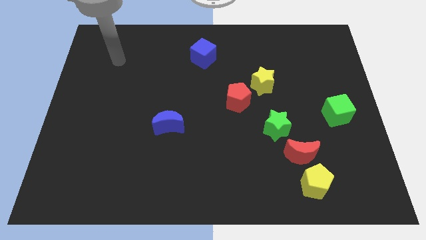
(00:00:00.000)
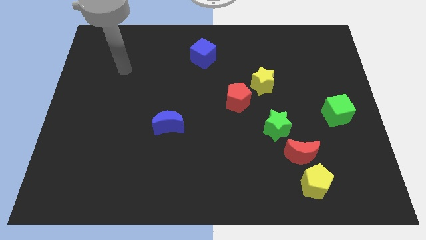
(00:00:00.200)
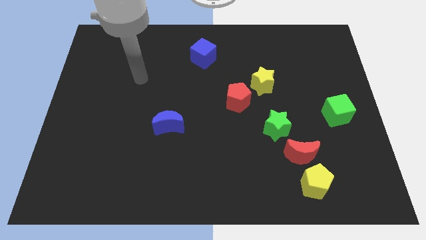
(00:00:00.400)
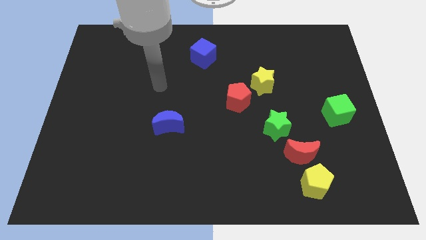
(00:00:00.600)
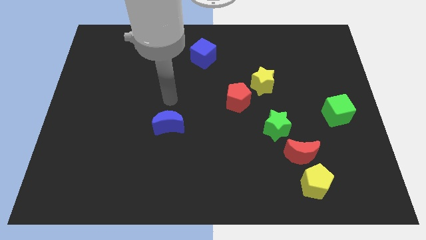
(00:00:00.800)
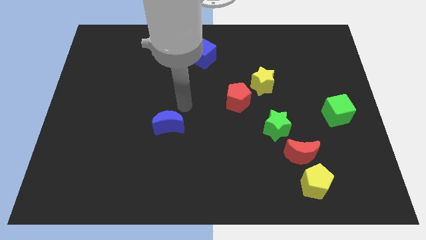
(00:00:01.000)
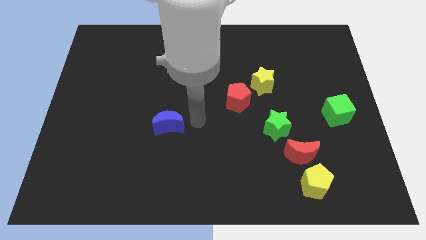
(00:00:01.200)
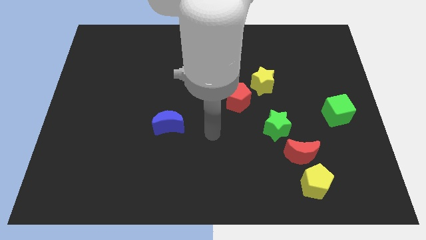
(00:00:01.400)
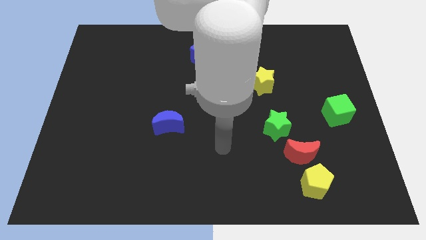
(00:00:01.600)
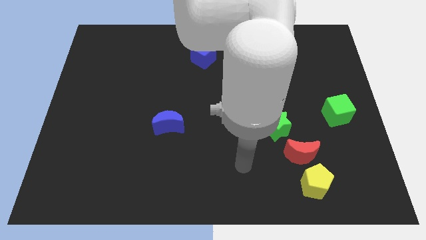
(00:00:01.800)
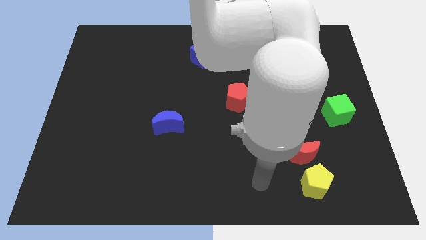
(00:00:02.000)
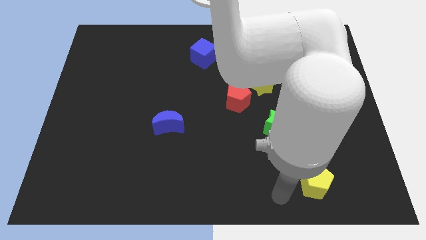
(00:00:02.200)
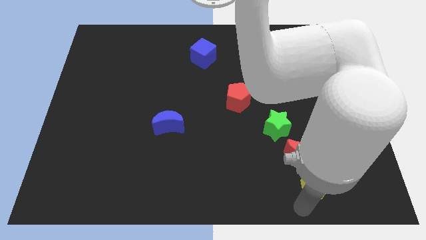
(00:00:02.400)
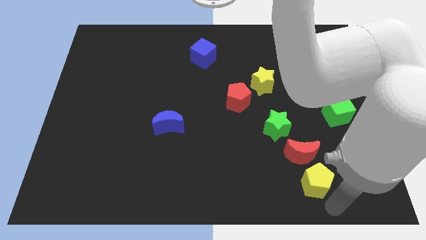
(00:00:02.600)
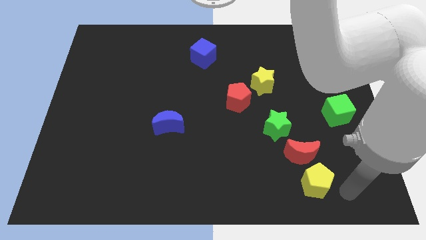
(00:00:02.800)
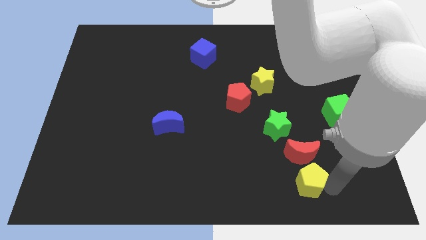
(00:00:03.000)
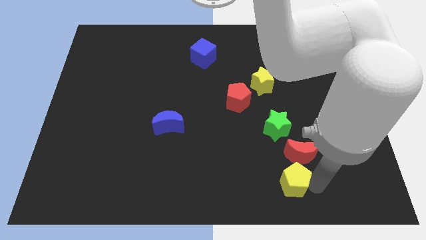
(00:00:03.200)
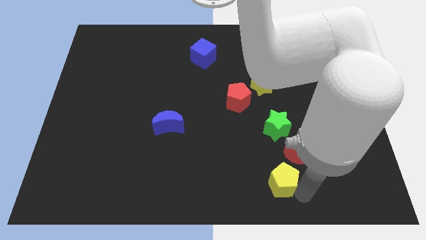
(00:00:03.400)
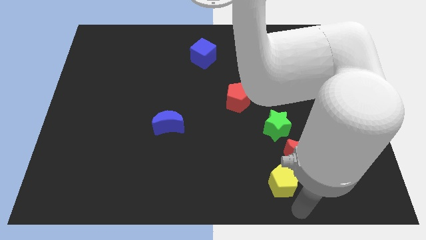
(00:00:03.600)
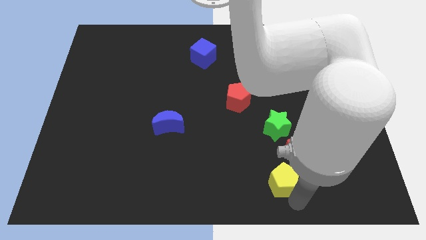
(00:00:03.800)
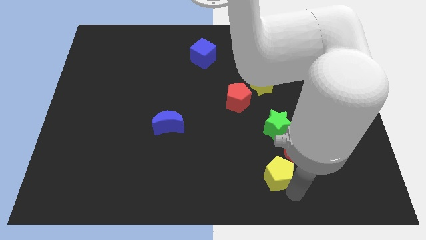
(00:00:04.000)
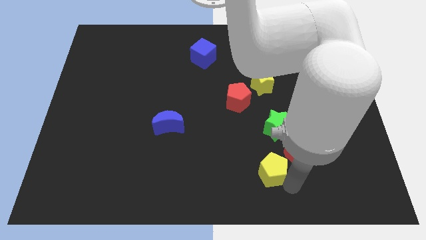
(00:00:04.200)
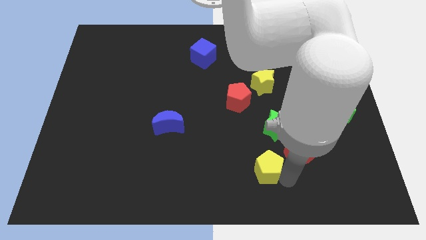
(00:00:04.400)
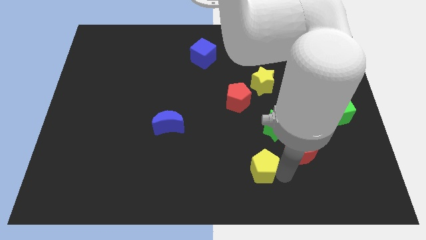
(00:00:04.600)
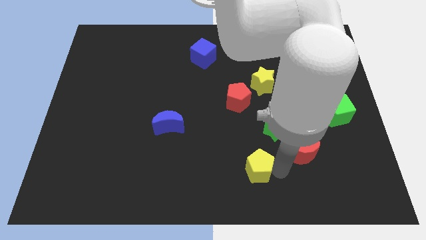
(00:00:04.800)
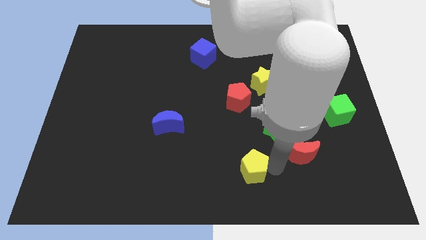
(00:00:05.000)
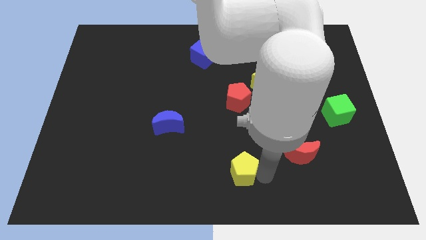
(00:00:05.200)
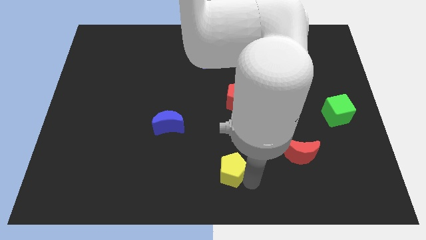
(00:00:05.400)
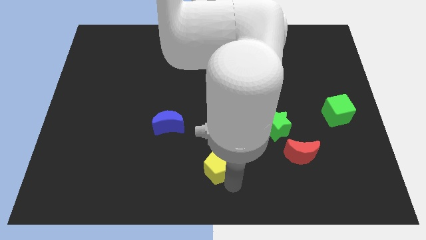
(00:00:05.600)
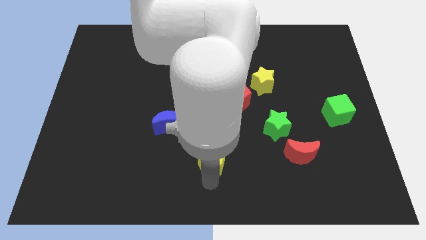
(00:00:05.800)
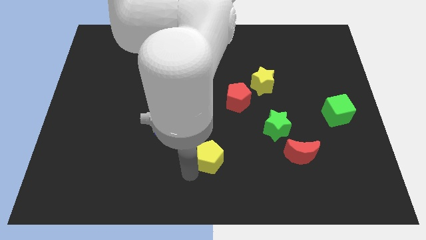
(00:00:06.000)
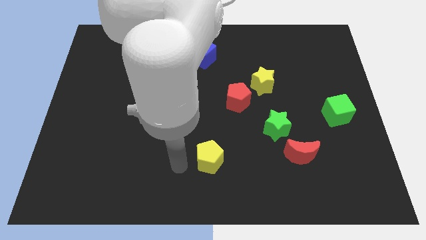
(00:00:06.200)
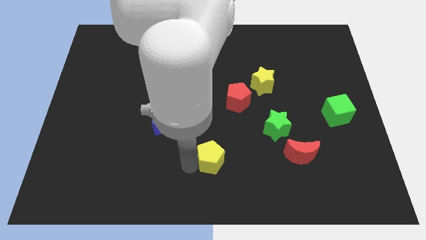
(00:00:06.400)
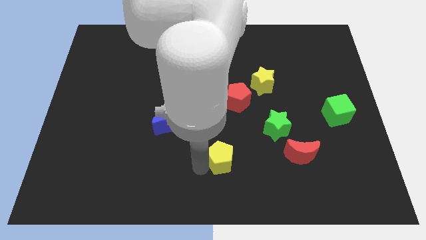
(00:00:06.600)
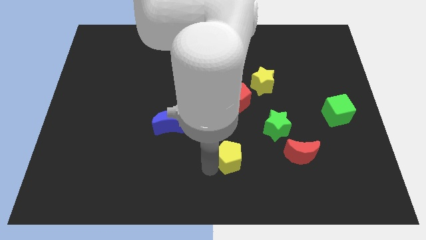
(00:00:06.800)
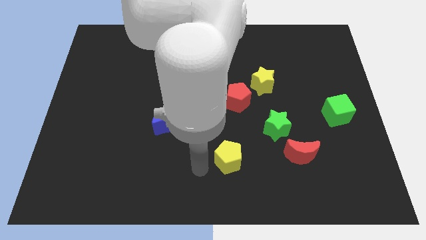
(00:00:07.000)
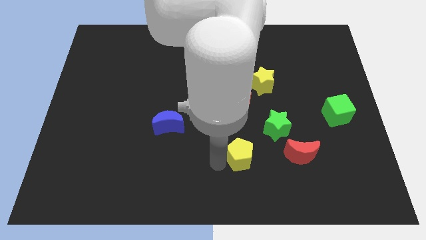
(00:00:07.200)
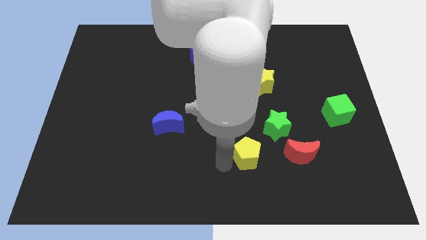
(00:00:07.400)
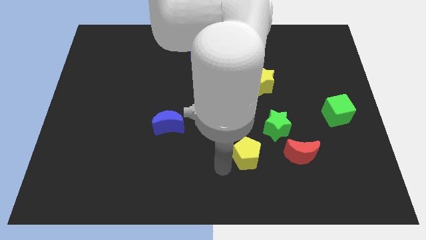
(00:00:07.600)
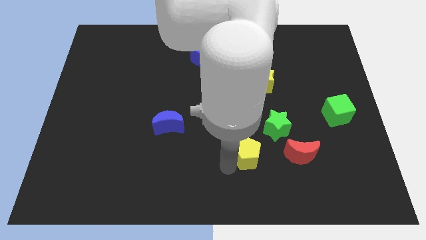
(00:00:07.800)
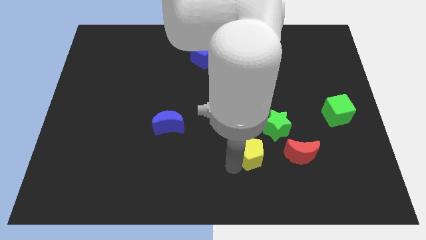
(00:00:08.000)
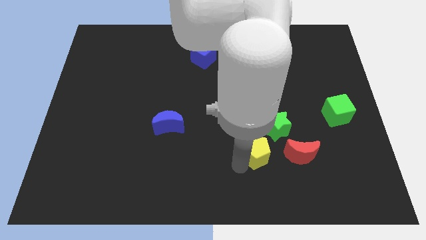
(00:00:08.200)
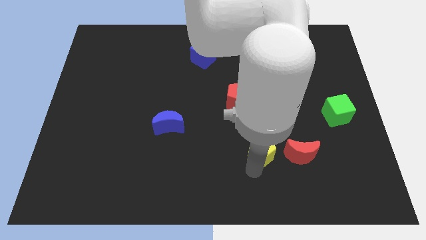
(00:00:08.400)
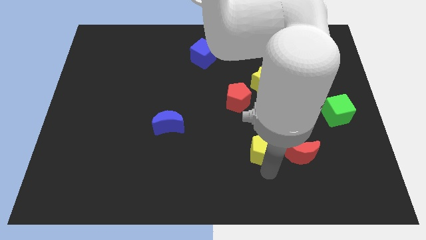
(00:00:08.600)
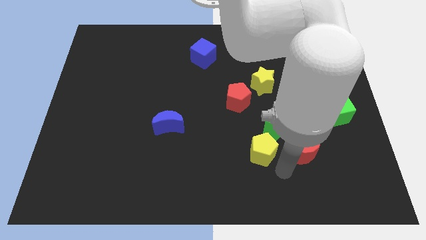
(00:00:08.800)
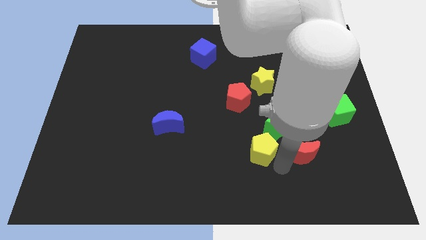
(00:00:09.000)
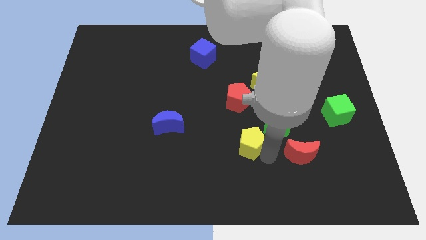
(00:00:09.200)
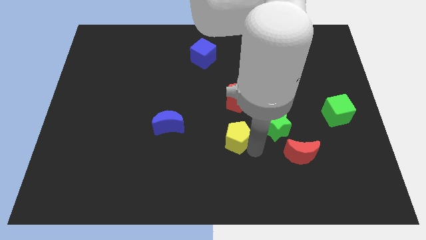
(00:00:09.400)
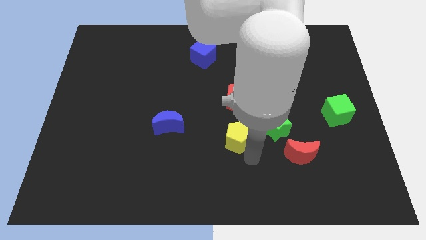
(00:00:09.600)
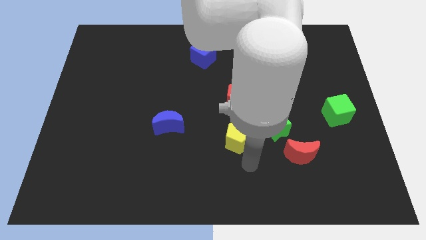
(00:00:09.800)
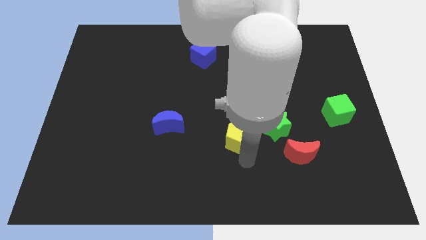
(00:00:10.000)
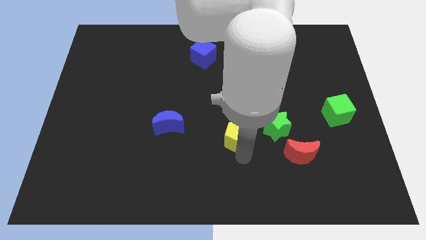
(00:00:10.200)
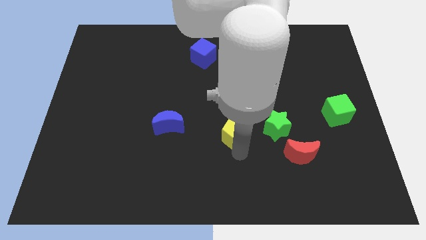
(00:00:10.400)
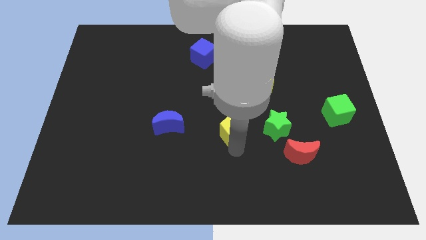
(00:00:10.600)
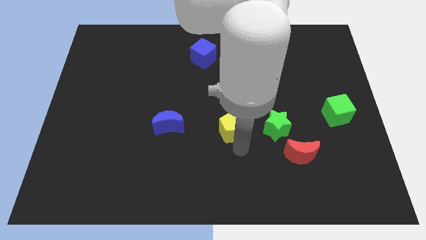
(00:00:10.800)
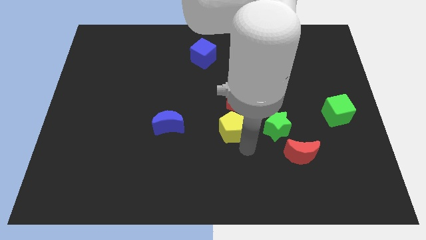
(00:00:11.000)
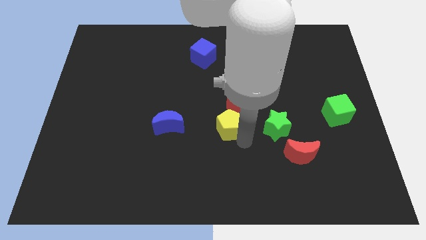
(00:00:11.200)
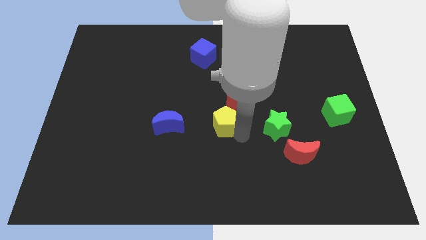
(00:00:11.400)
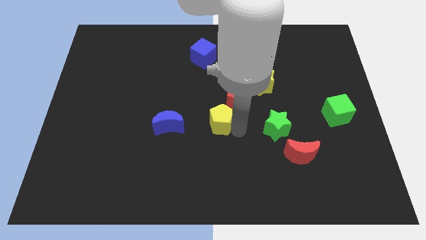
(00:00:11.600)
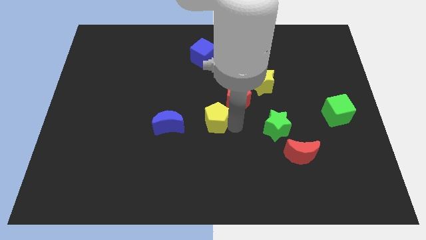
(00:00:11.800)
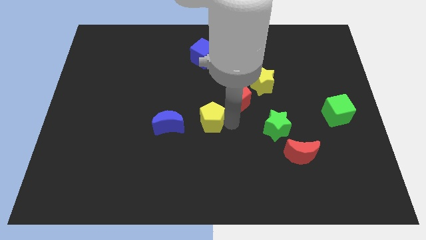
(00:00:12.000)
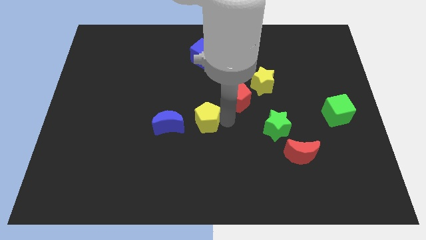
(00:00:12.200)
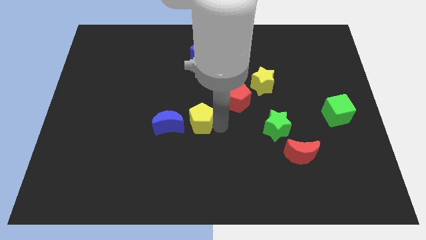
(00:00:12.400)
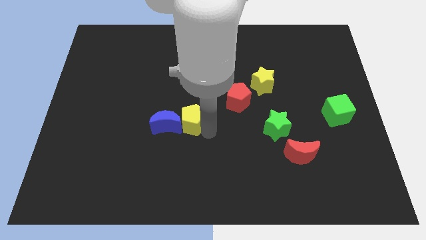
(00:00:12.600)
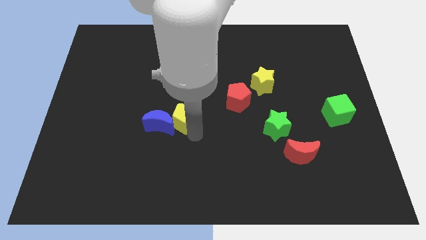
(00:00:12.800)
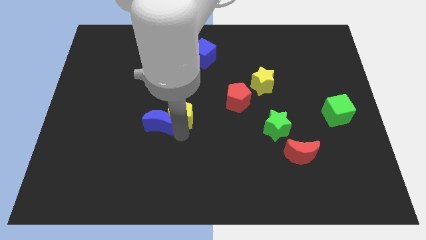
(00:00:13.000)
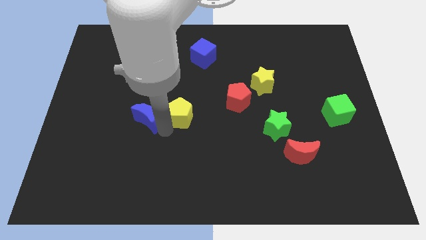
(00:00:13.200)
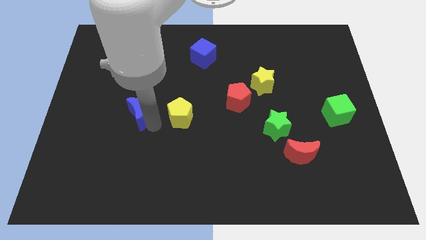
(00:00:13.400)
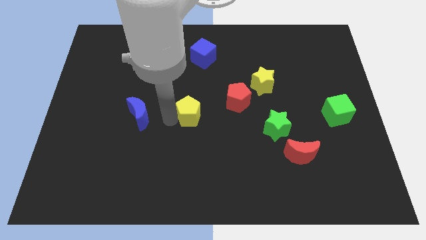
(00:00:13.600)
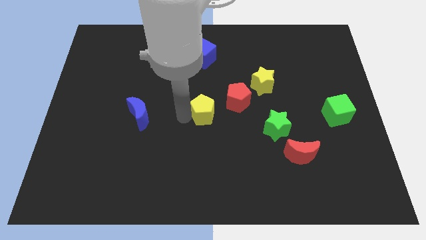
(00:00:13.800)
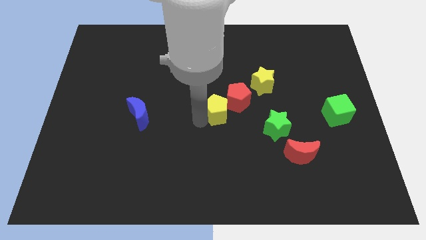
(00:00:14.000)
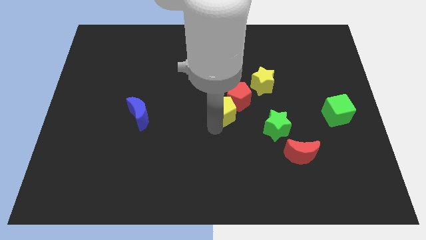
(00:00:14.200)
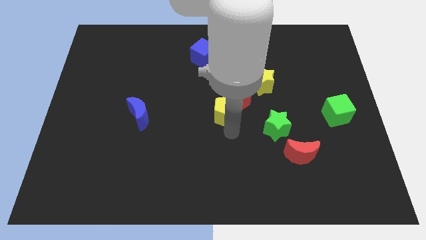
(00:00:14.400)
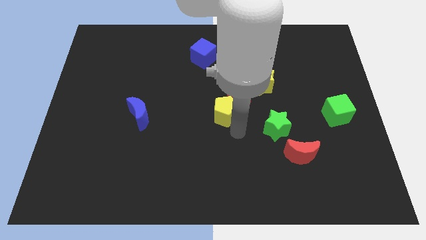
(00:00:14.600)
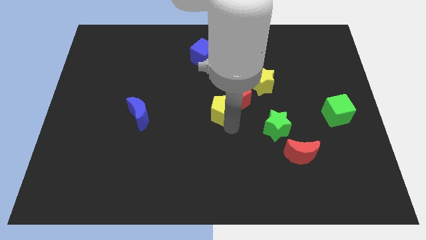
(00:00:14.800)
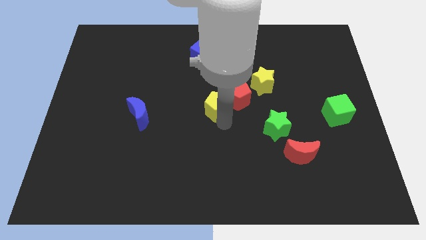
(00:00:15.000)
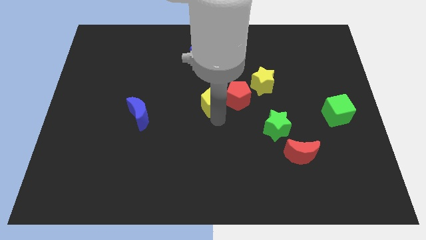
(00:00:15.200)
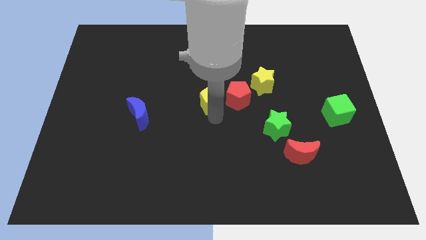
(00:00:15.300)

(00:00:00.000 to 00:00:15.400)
slide the yellow pentagon to the bottom of the blue cube
